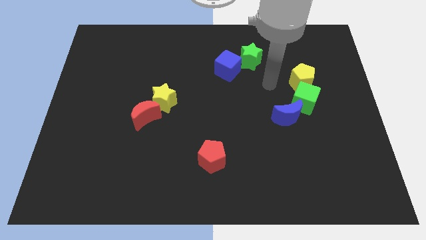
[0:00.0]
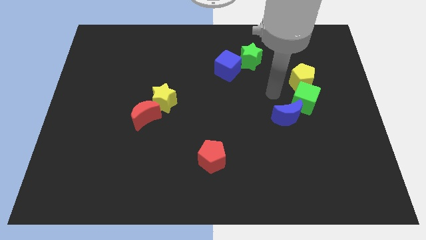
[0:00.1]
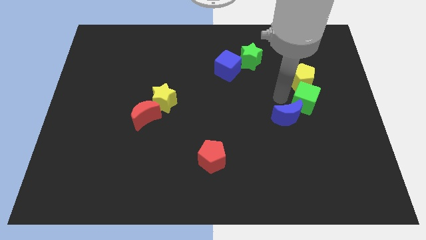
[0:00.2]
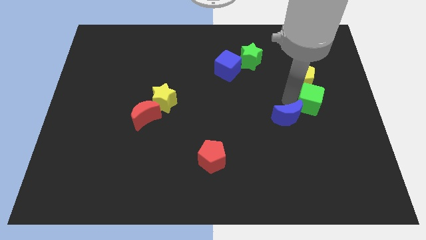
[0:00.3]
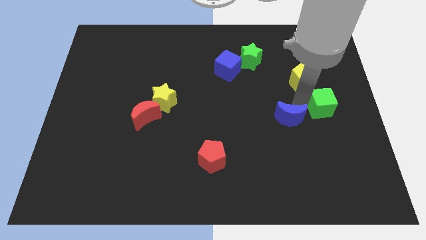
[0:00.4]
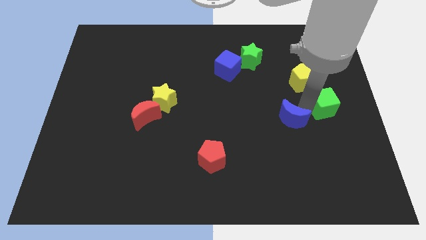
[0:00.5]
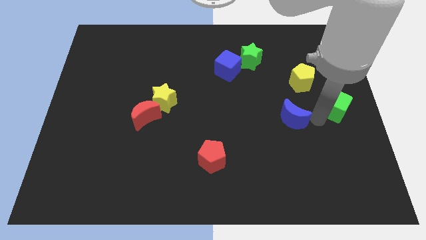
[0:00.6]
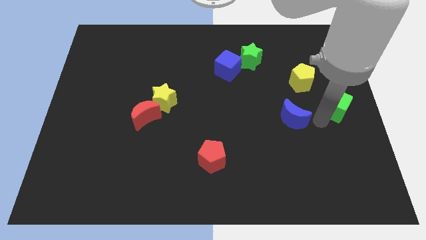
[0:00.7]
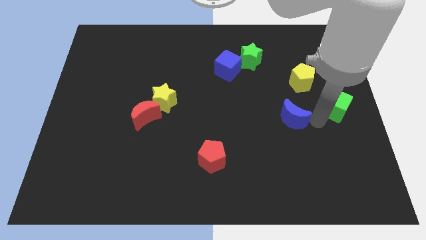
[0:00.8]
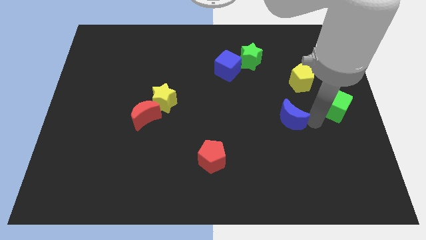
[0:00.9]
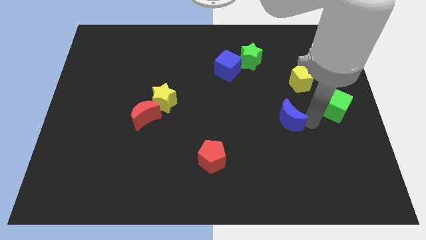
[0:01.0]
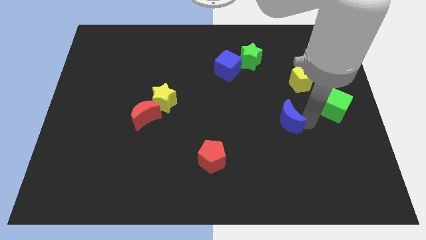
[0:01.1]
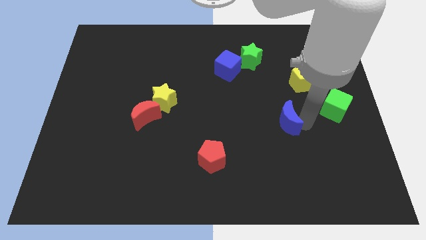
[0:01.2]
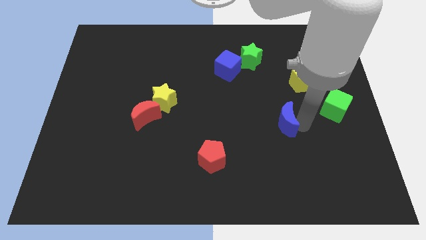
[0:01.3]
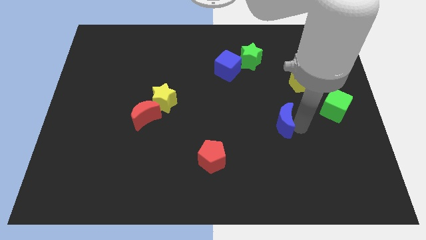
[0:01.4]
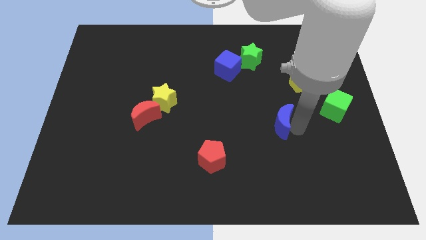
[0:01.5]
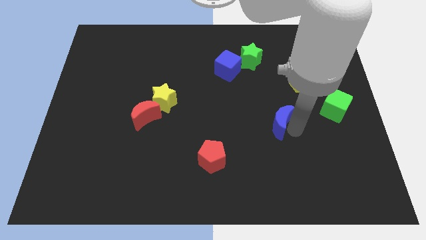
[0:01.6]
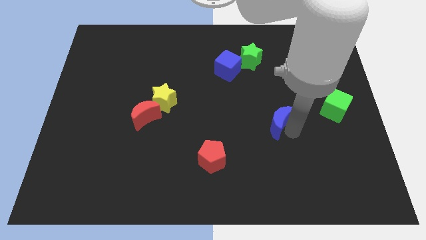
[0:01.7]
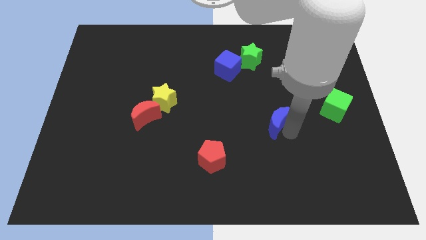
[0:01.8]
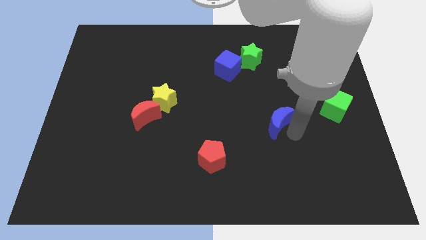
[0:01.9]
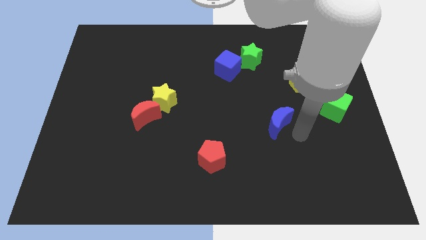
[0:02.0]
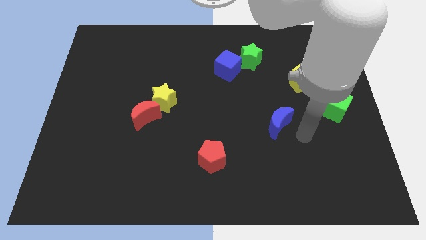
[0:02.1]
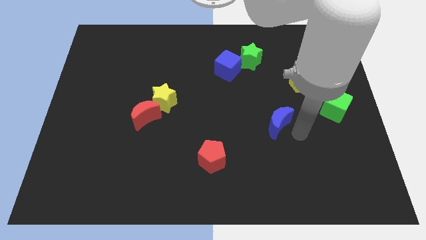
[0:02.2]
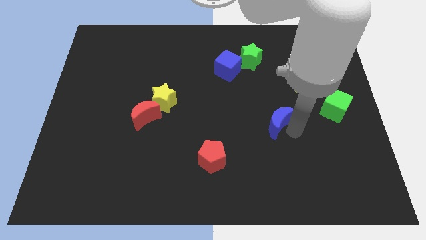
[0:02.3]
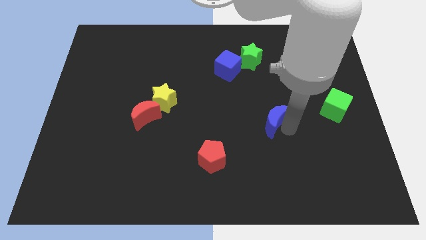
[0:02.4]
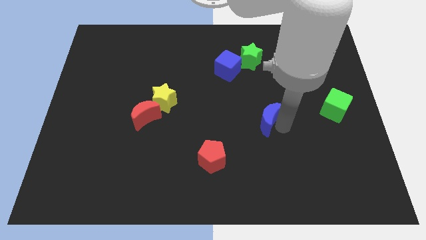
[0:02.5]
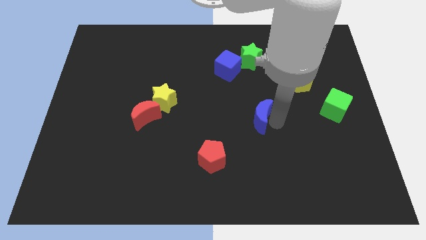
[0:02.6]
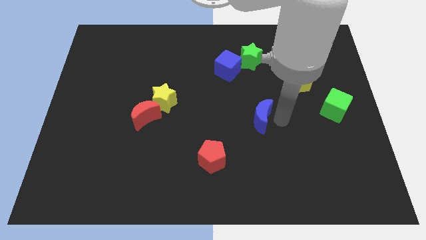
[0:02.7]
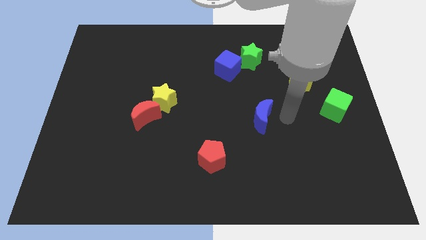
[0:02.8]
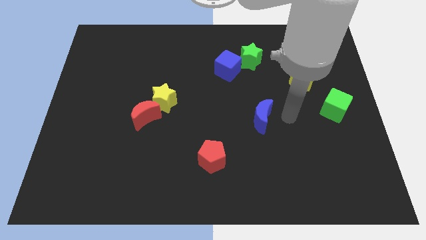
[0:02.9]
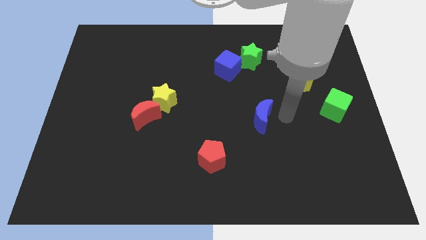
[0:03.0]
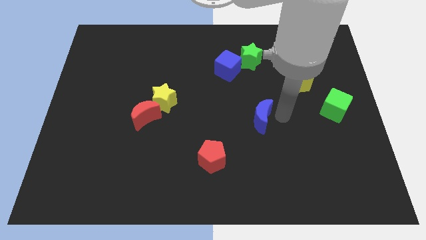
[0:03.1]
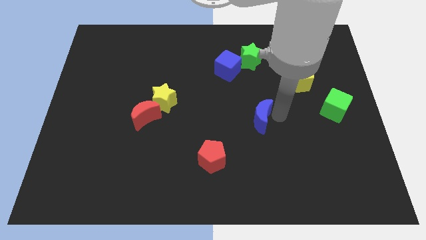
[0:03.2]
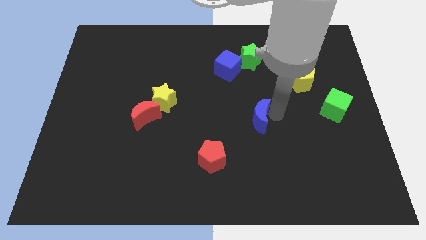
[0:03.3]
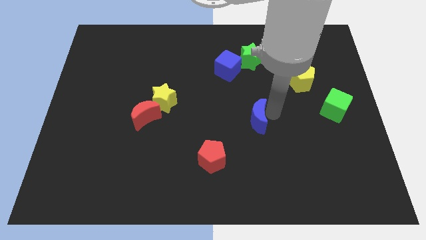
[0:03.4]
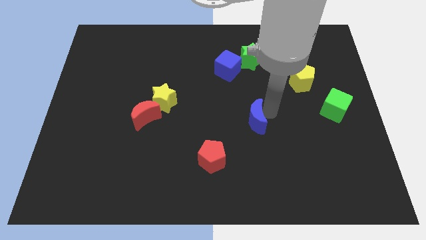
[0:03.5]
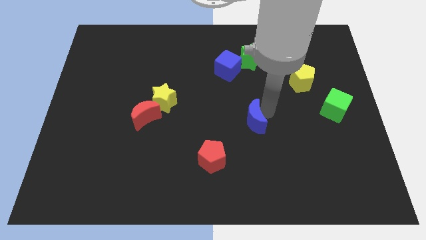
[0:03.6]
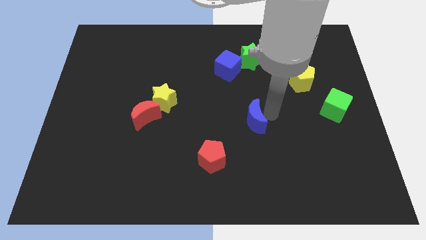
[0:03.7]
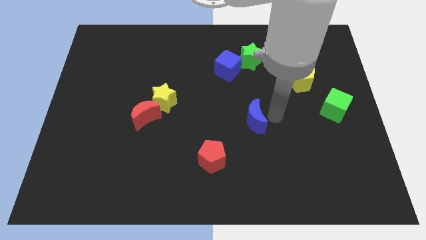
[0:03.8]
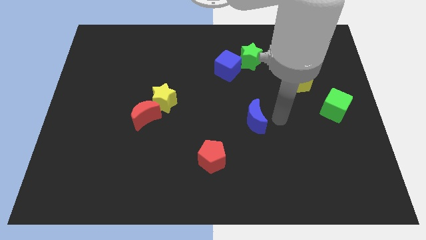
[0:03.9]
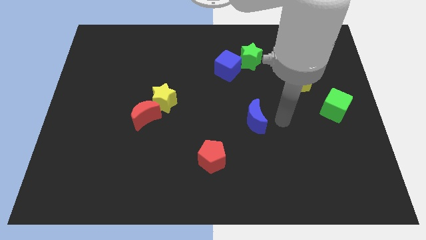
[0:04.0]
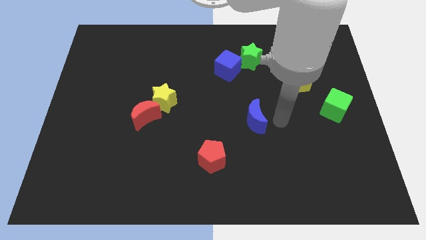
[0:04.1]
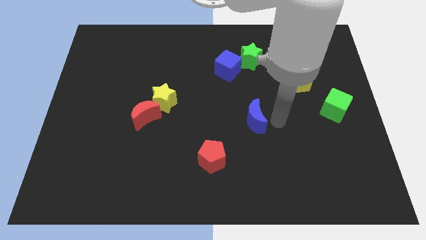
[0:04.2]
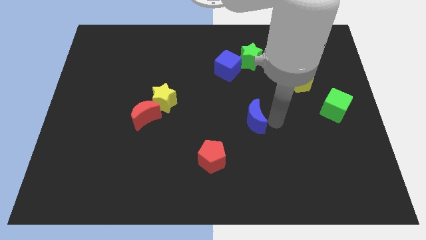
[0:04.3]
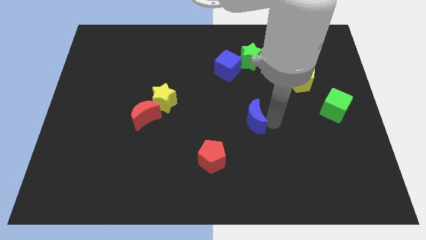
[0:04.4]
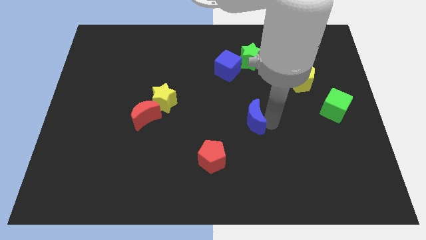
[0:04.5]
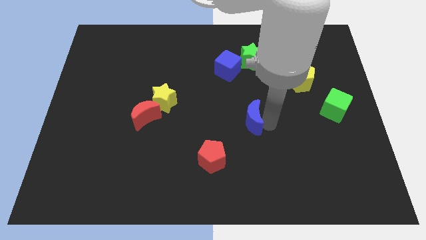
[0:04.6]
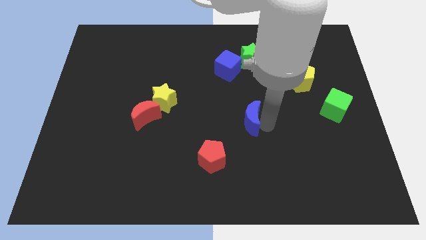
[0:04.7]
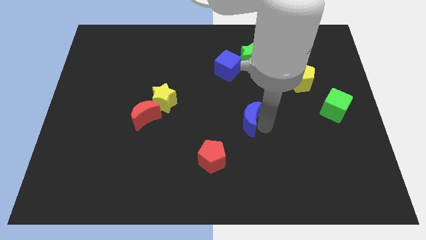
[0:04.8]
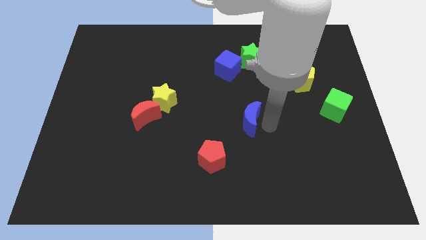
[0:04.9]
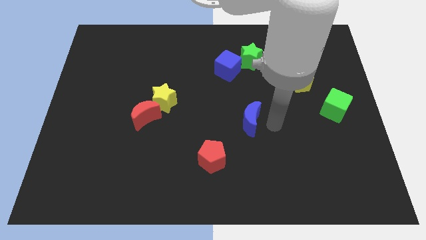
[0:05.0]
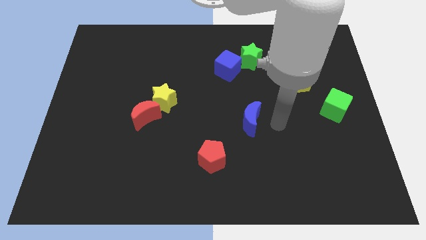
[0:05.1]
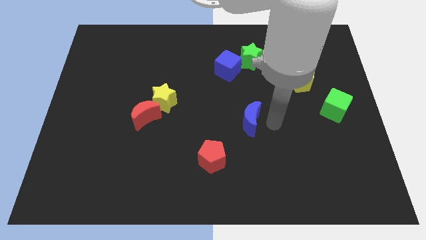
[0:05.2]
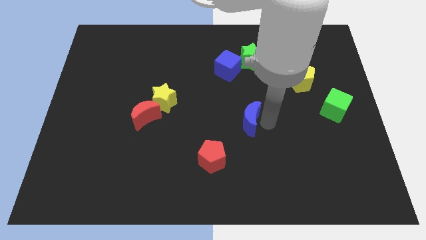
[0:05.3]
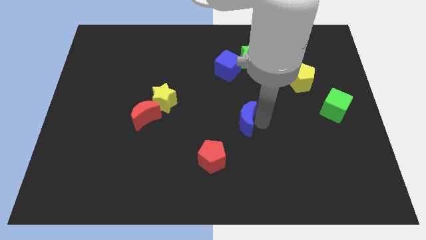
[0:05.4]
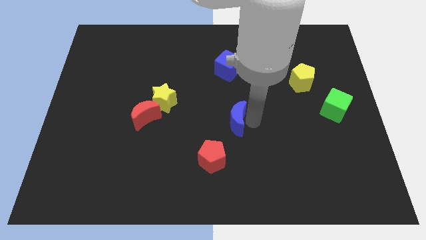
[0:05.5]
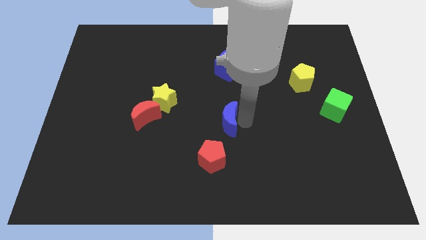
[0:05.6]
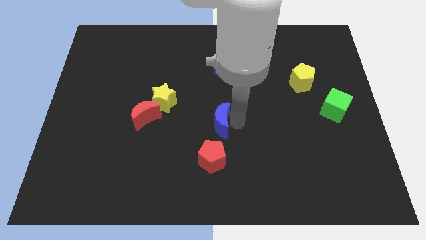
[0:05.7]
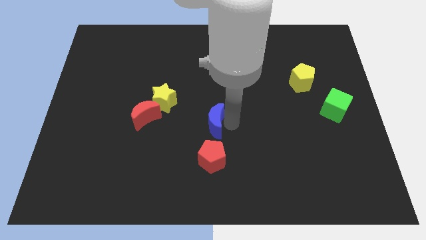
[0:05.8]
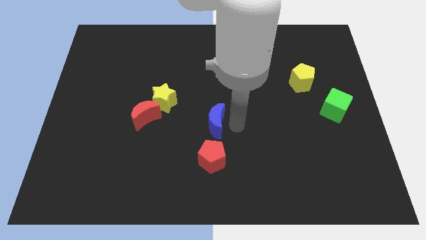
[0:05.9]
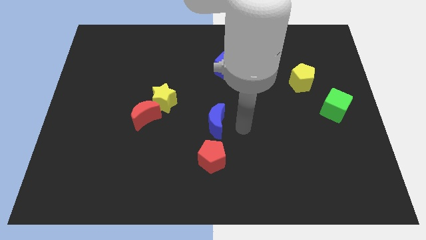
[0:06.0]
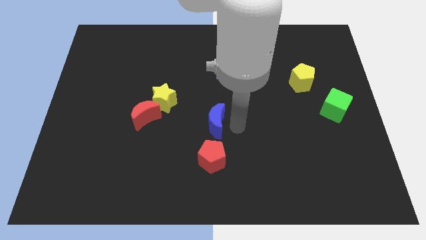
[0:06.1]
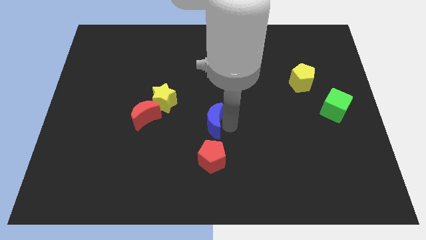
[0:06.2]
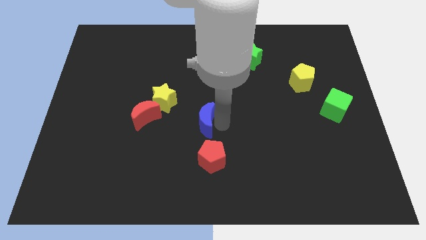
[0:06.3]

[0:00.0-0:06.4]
put the blue moon to the bottom right side of the yellow star

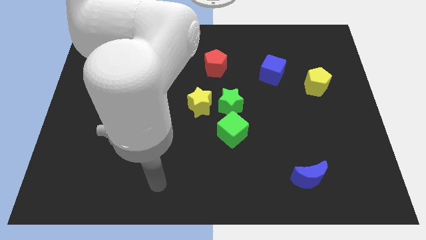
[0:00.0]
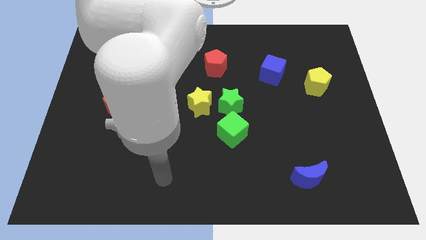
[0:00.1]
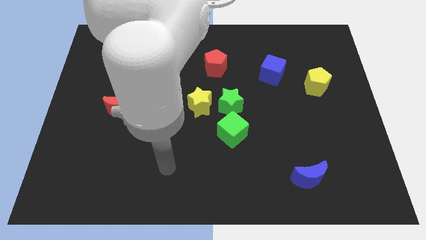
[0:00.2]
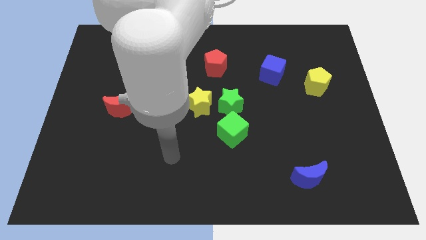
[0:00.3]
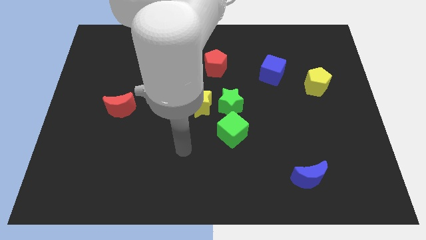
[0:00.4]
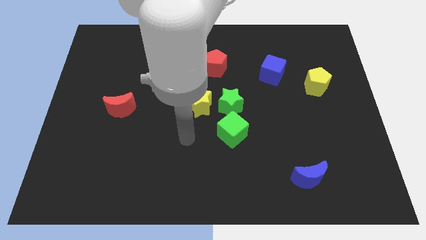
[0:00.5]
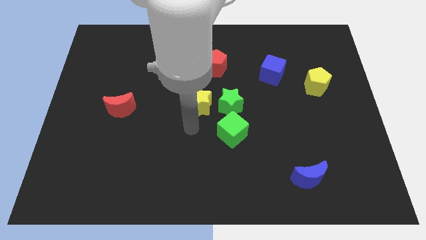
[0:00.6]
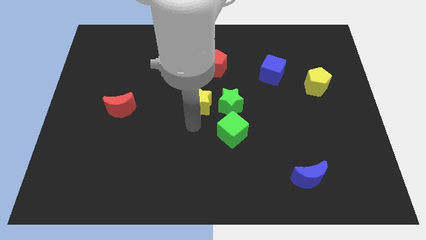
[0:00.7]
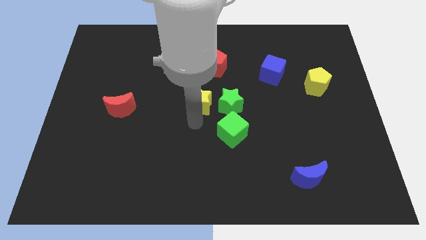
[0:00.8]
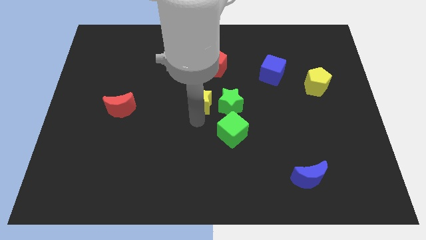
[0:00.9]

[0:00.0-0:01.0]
put the yellow star to the top left side of the green star
